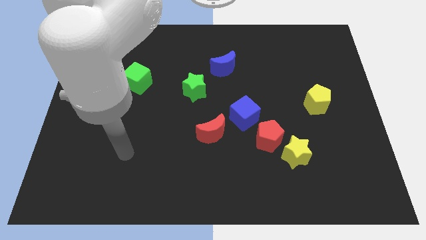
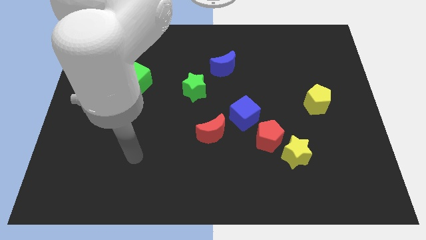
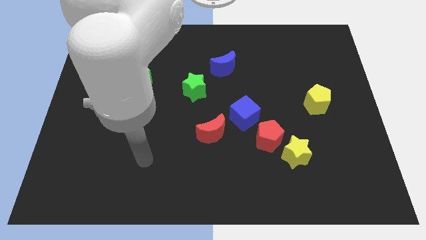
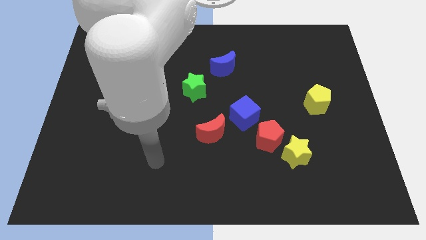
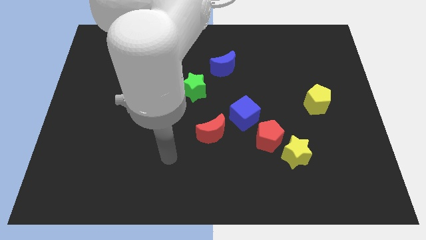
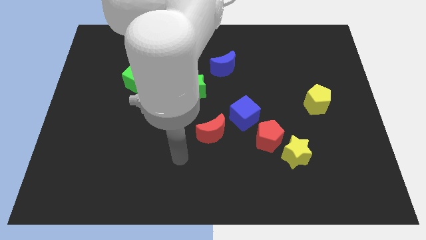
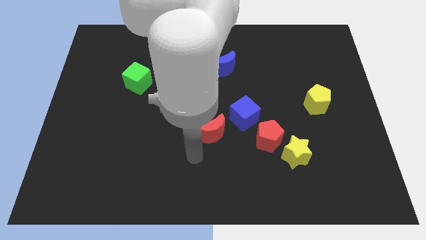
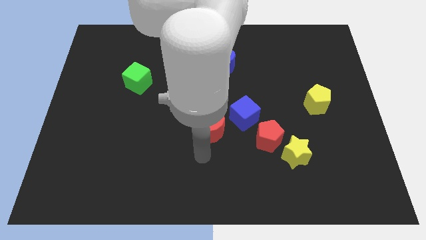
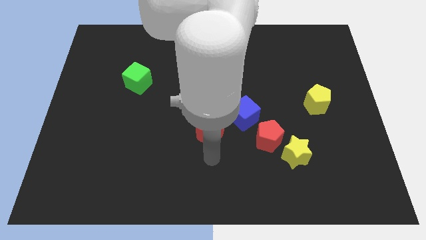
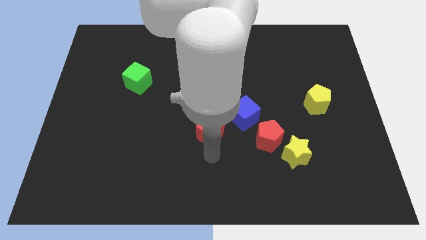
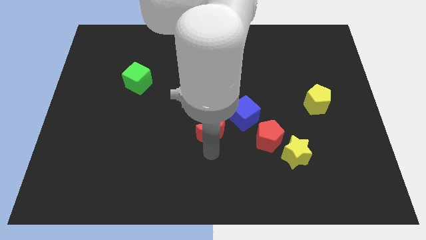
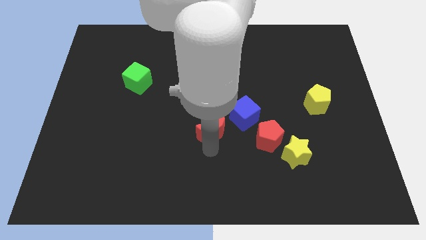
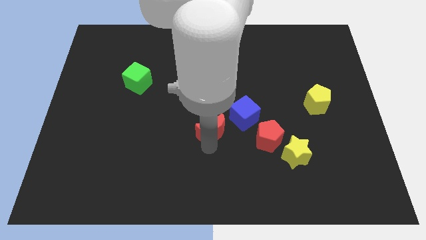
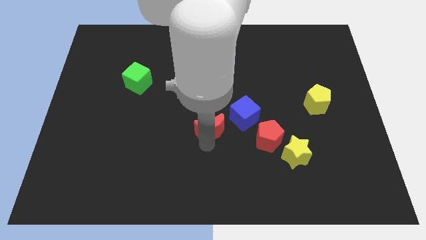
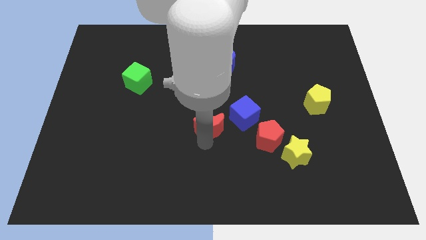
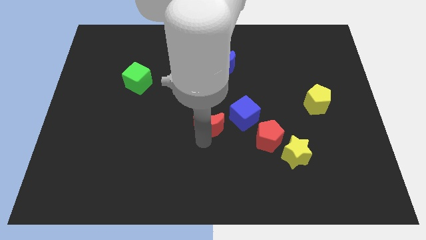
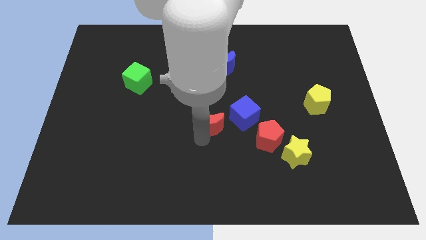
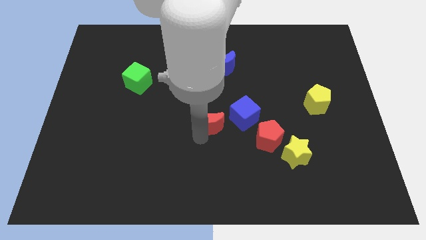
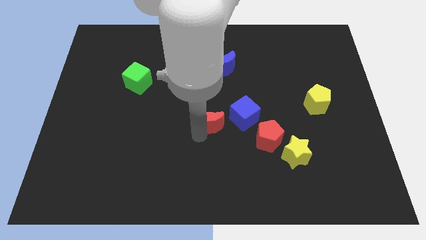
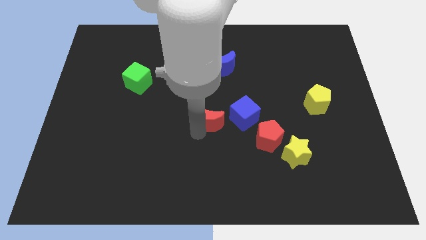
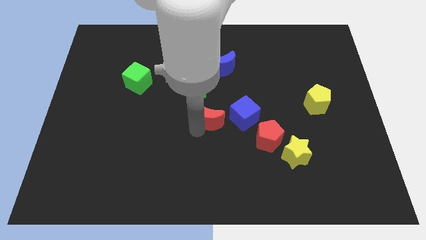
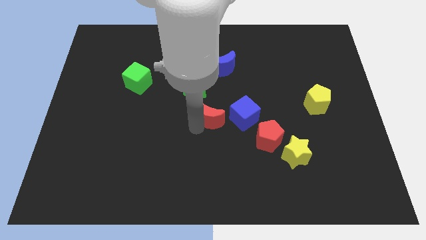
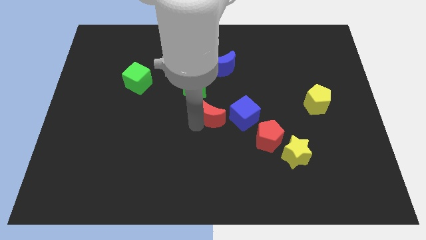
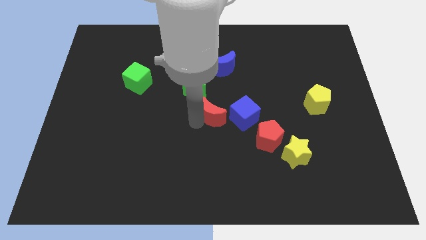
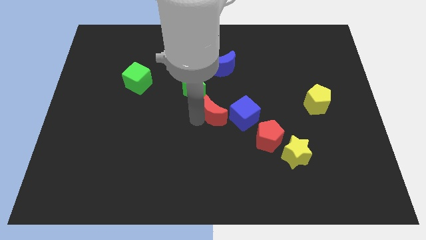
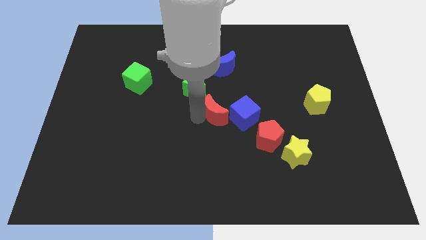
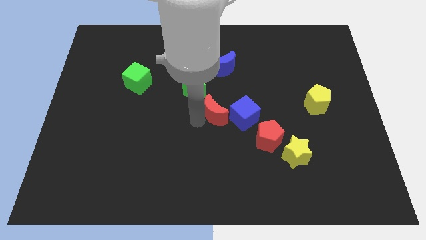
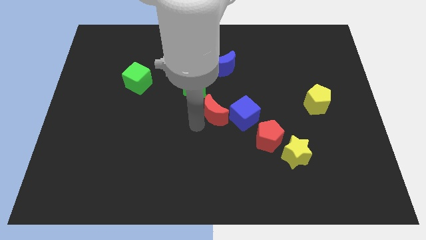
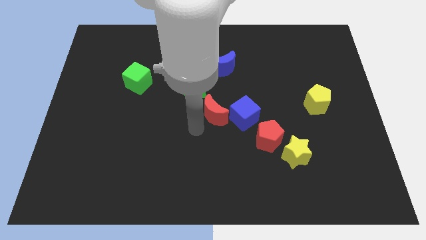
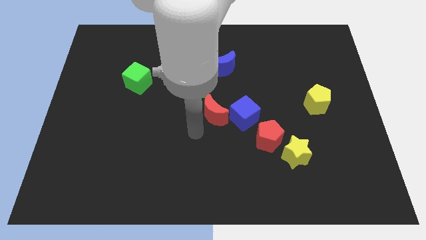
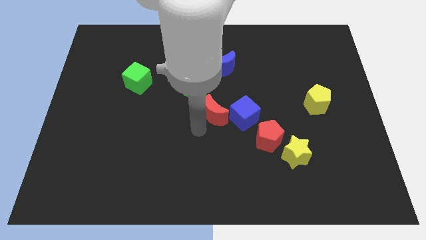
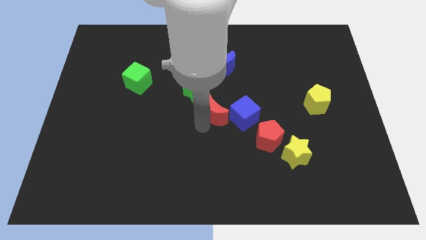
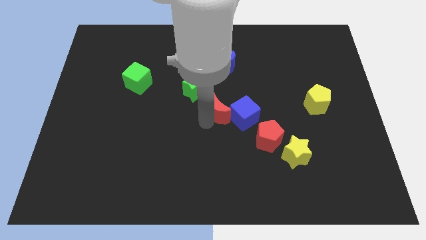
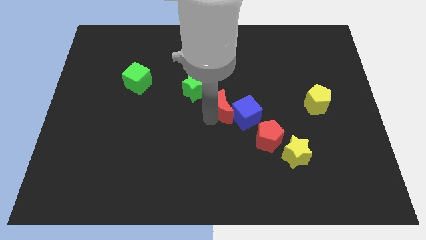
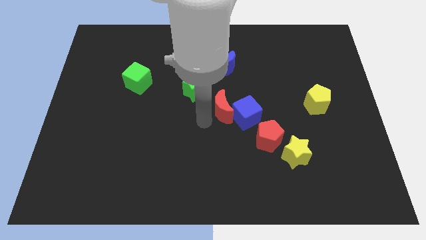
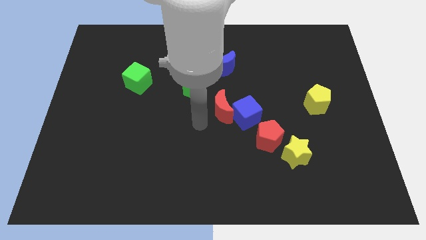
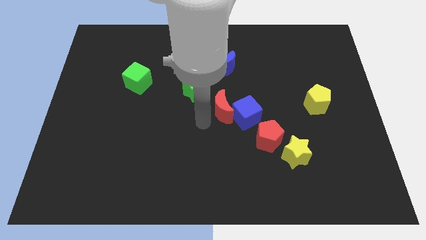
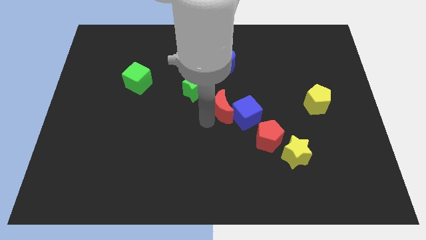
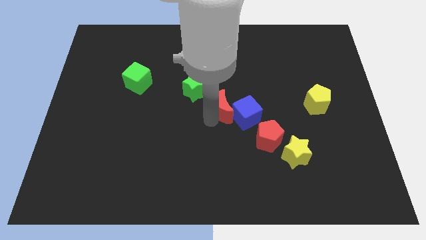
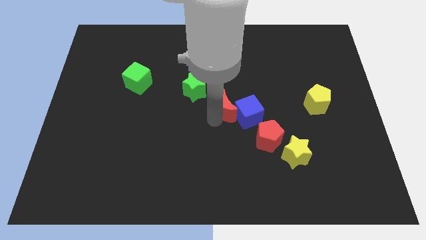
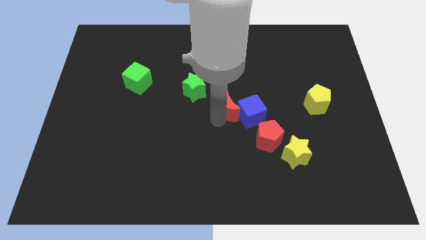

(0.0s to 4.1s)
push the red moon upwards and then to the right a bit

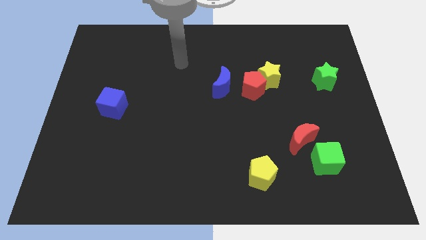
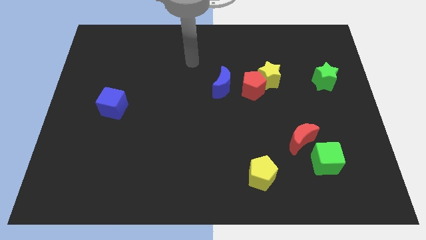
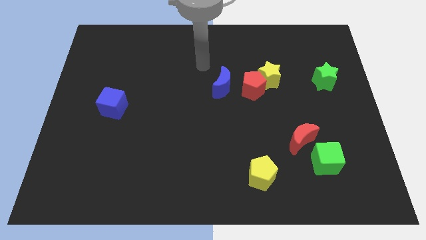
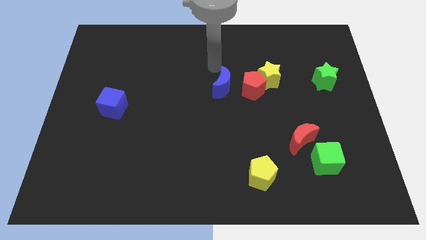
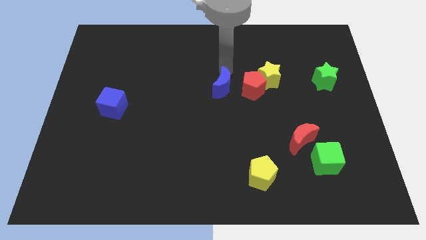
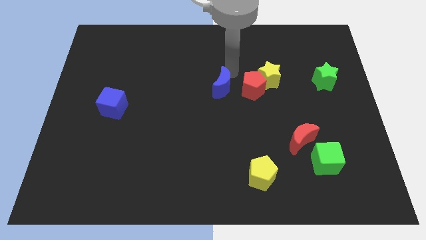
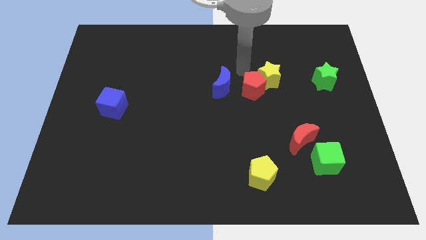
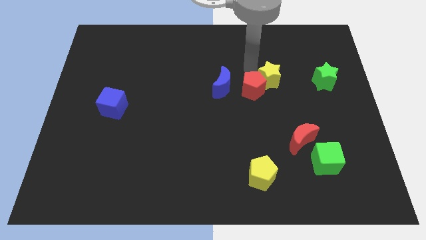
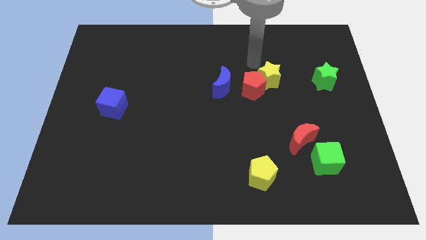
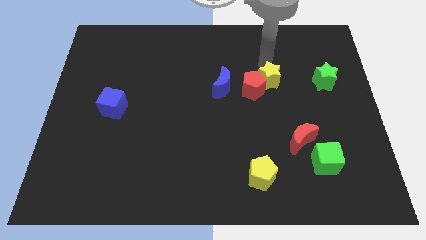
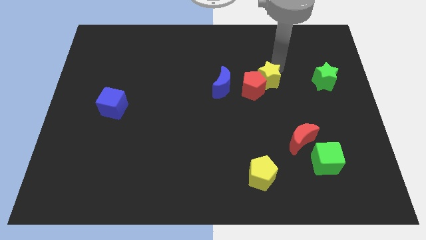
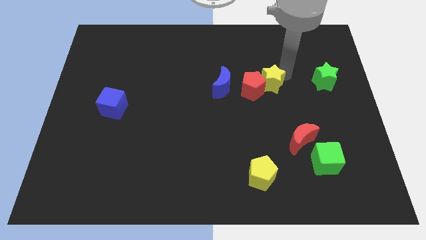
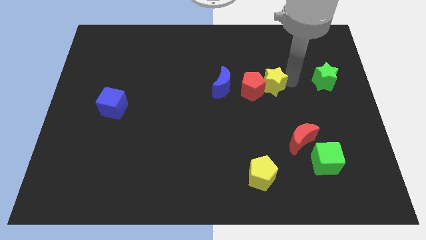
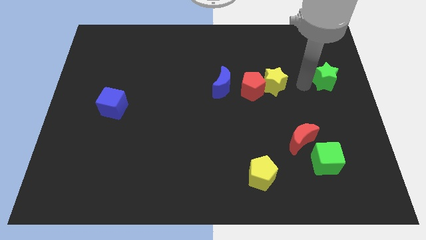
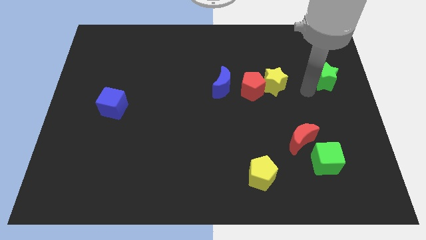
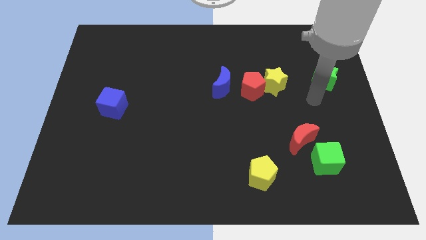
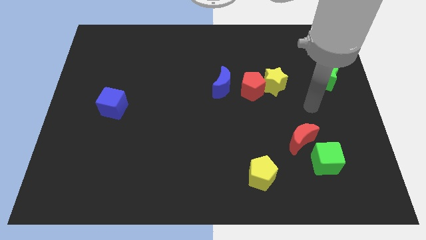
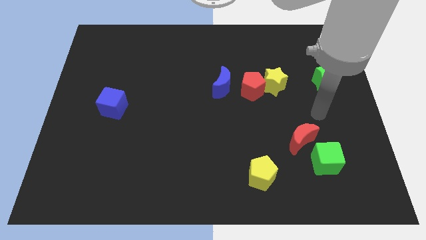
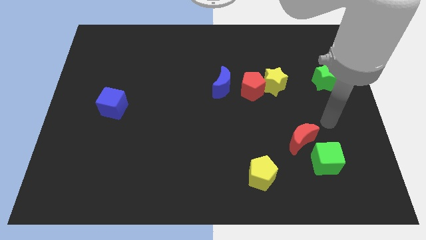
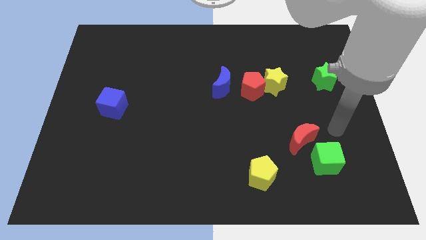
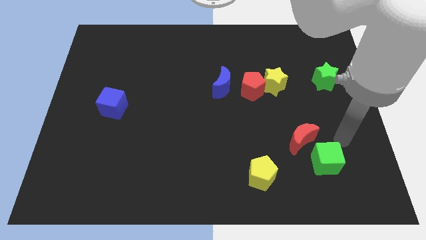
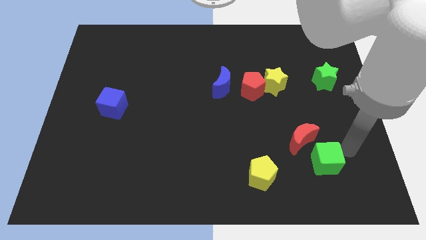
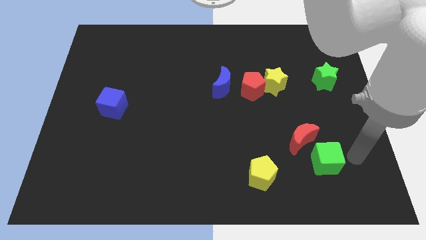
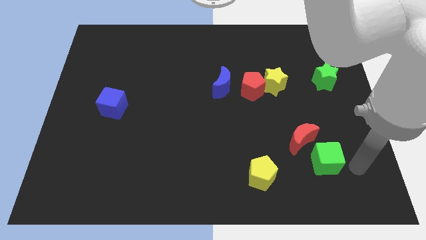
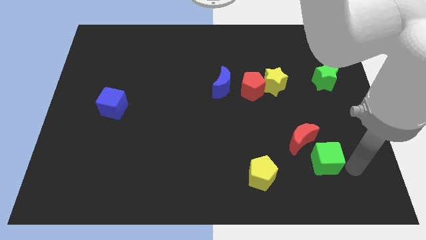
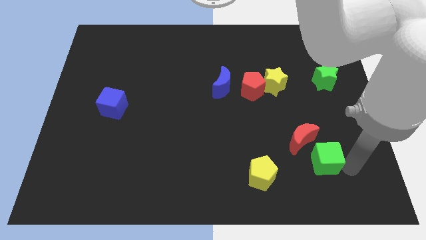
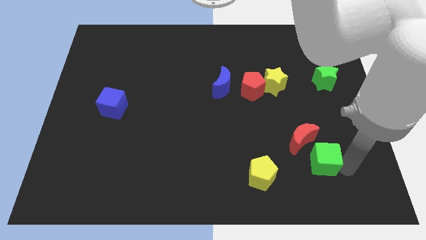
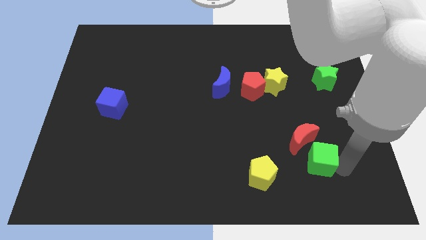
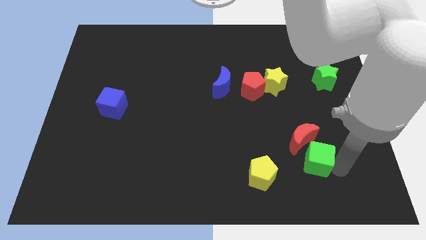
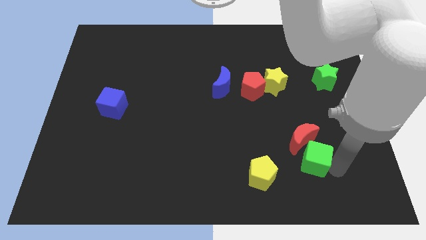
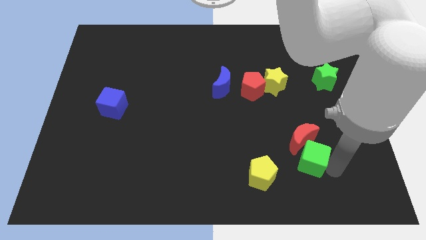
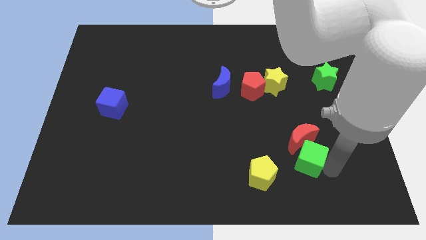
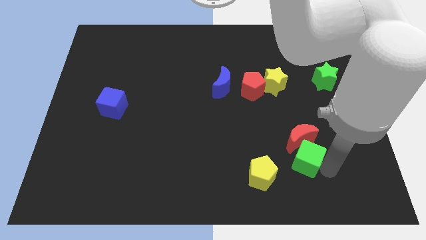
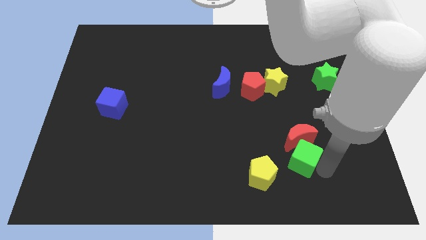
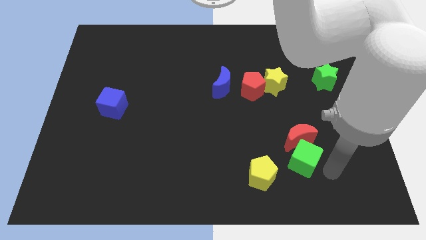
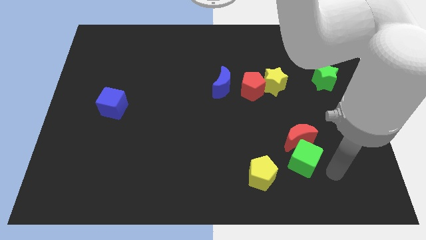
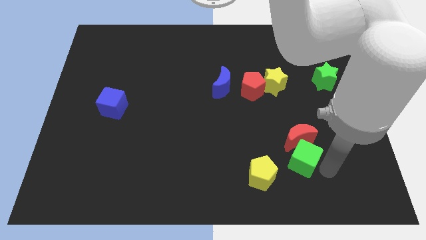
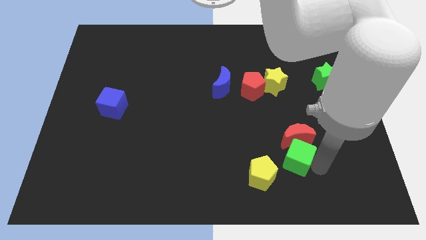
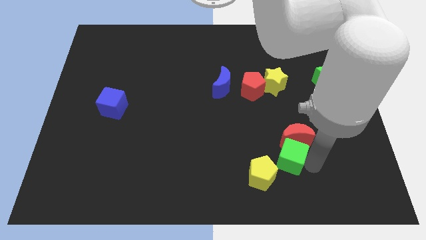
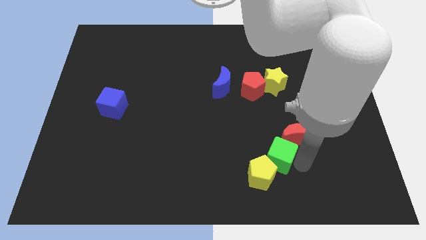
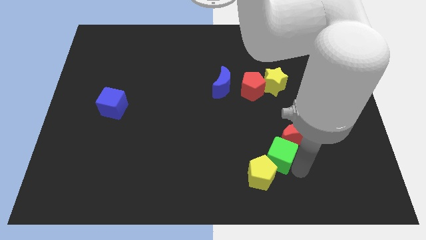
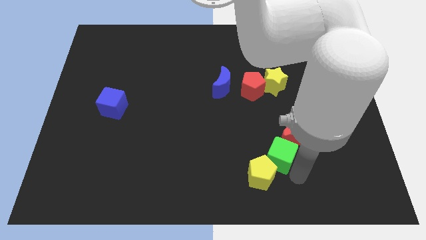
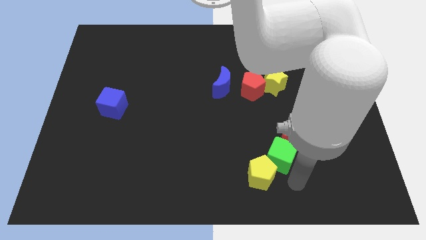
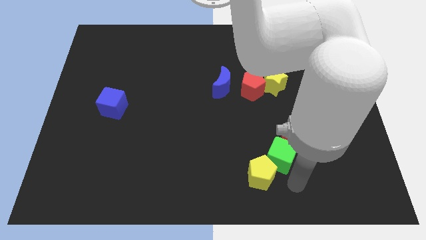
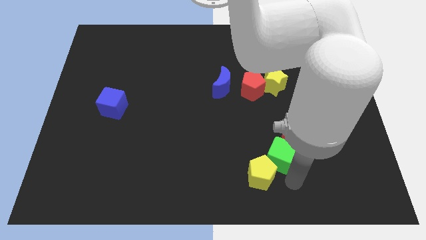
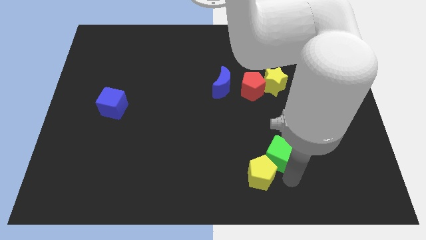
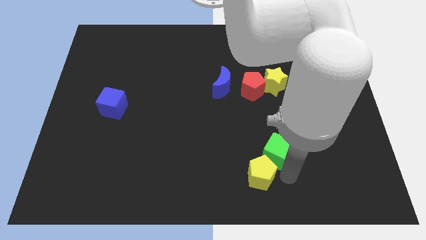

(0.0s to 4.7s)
slightly slide the green cube up and then left
